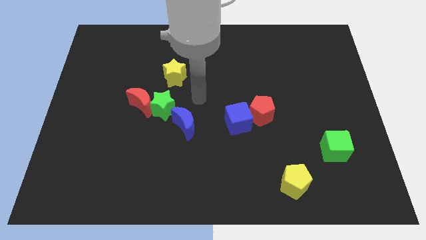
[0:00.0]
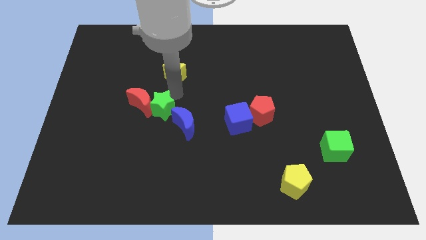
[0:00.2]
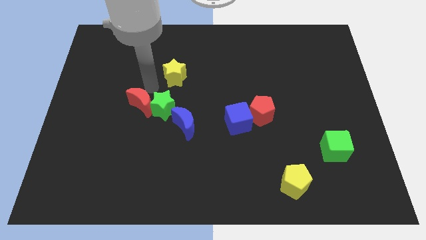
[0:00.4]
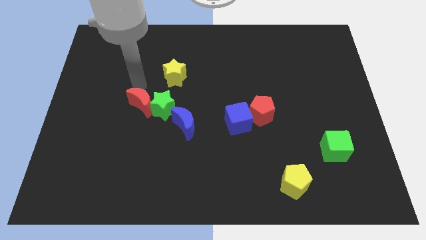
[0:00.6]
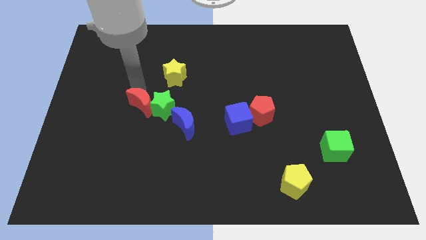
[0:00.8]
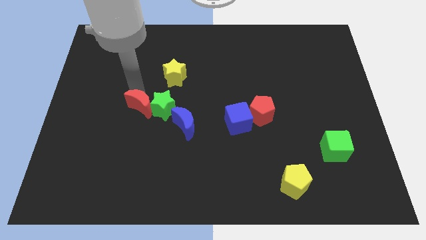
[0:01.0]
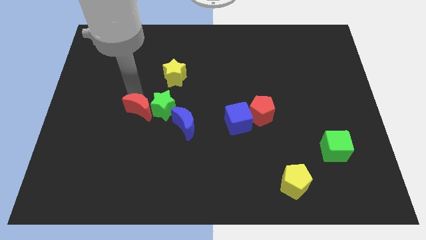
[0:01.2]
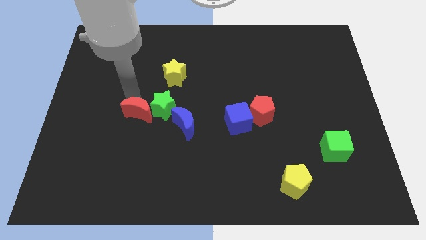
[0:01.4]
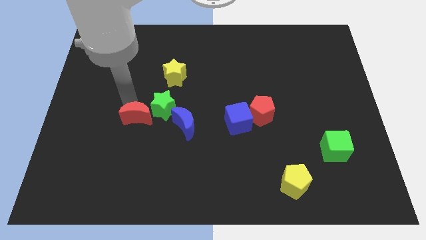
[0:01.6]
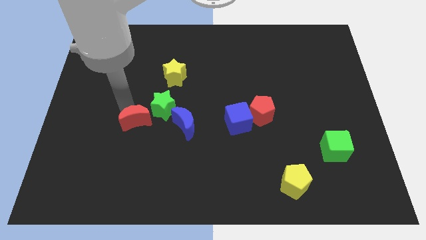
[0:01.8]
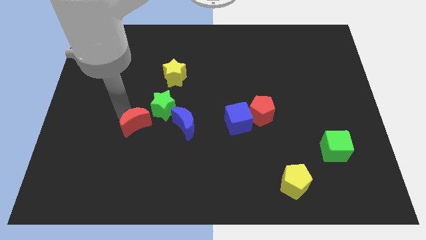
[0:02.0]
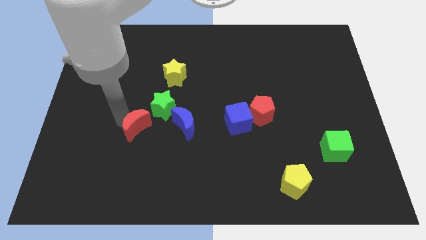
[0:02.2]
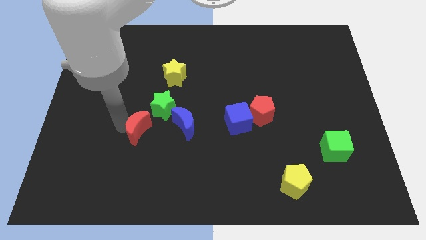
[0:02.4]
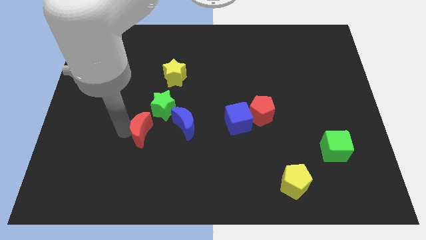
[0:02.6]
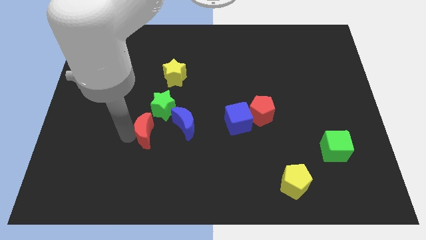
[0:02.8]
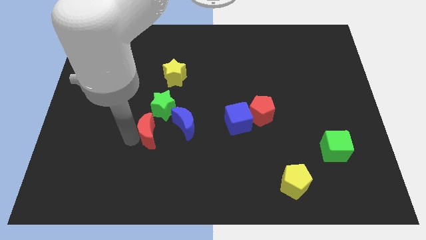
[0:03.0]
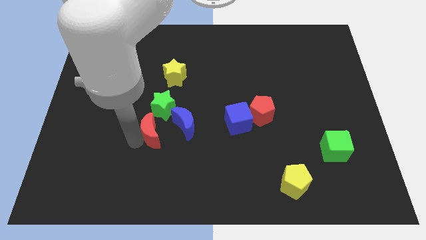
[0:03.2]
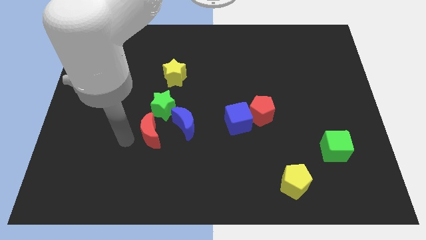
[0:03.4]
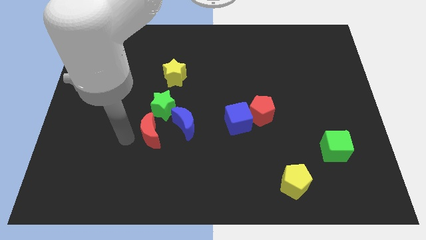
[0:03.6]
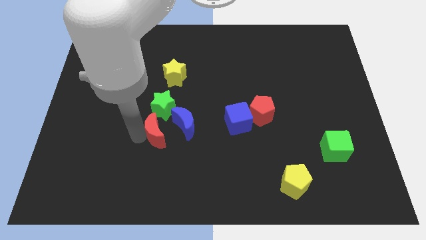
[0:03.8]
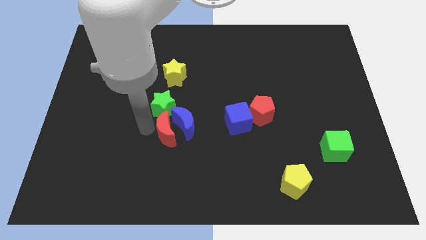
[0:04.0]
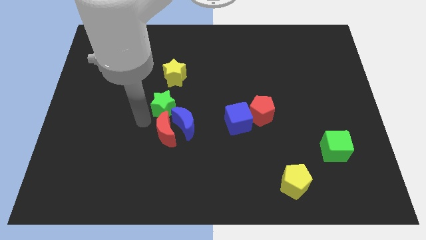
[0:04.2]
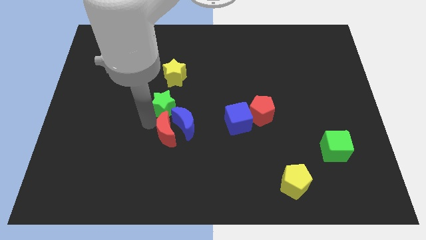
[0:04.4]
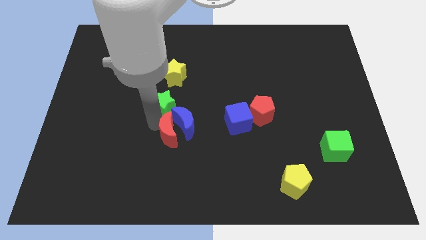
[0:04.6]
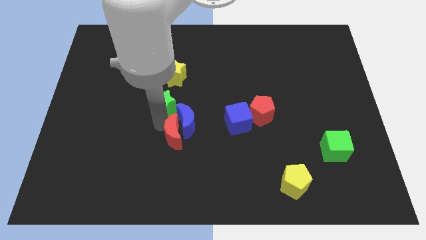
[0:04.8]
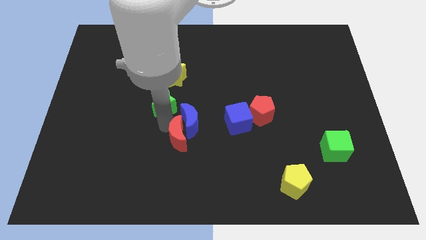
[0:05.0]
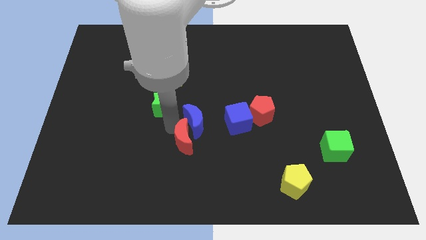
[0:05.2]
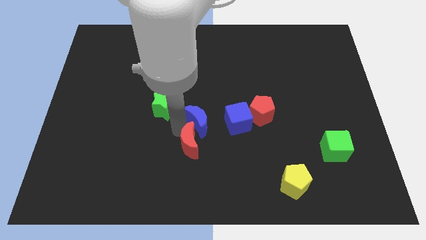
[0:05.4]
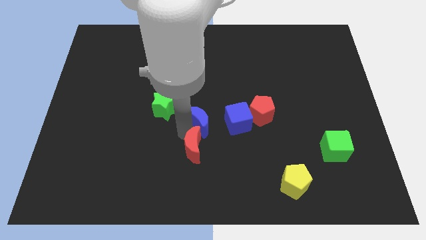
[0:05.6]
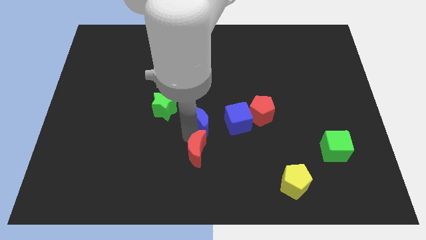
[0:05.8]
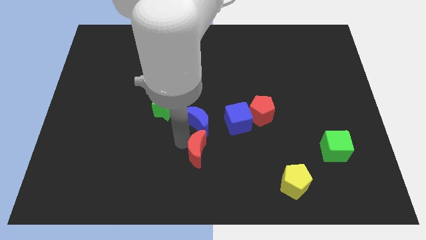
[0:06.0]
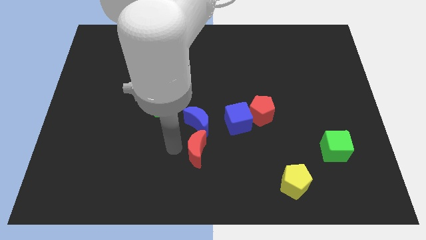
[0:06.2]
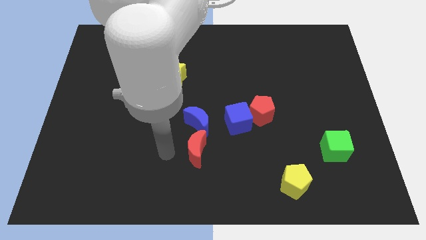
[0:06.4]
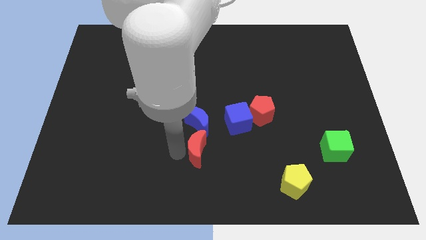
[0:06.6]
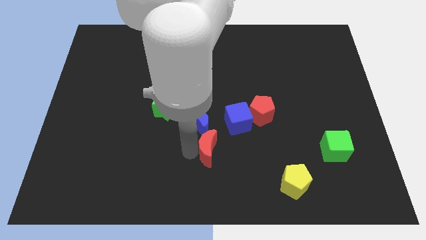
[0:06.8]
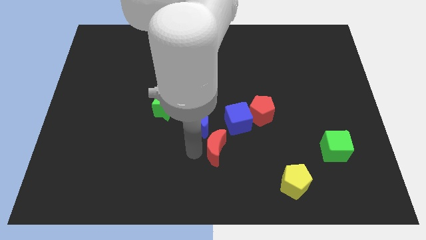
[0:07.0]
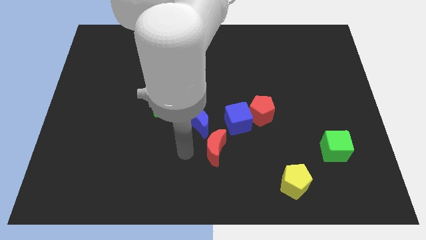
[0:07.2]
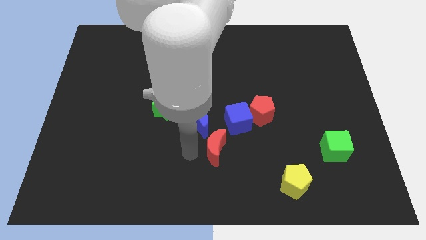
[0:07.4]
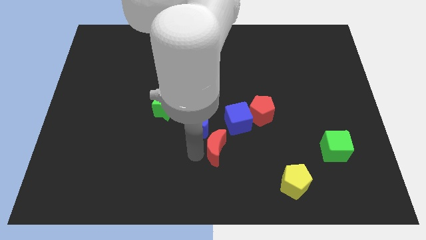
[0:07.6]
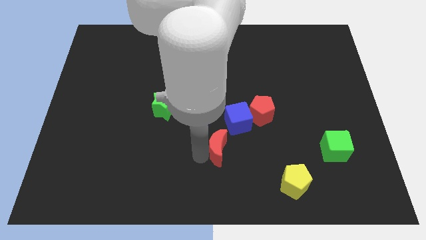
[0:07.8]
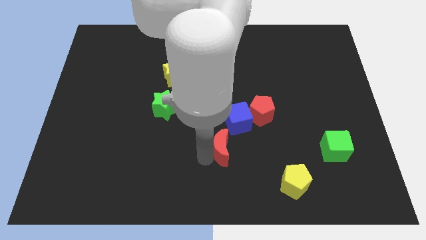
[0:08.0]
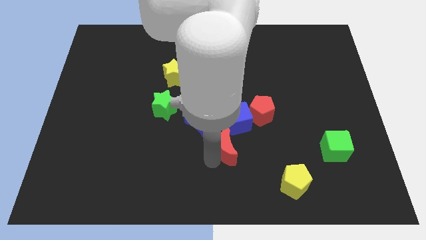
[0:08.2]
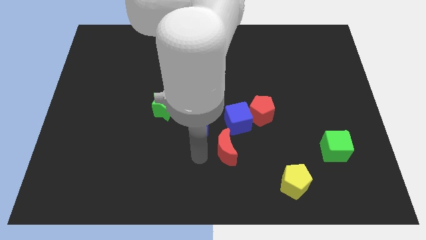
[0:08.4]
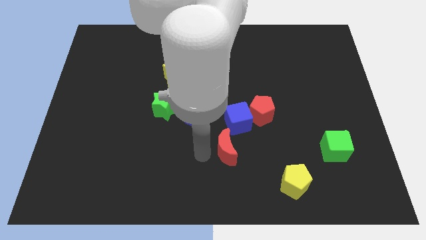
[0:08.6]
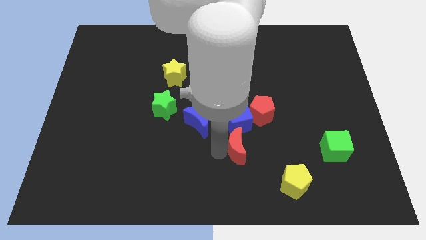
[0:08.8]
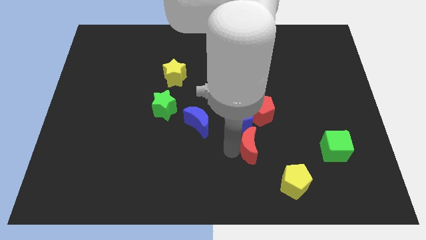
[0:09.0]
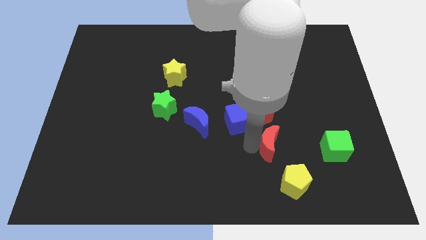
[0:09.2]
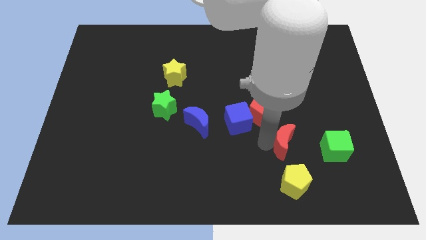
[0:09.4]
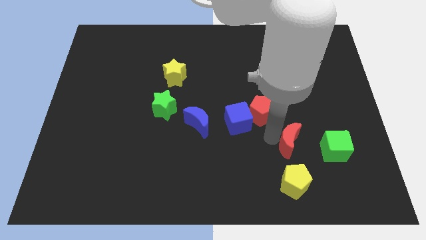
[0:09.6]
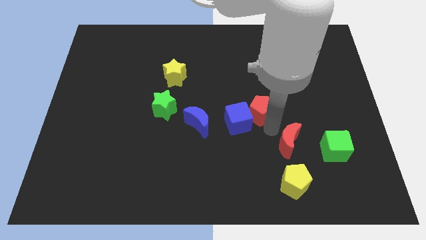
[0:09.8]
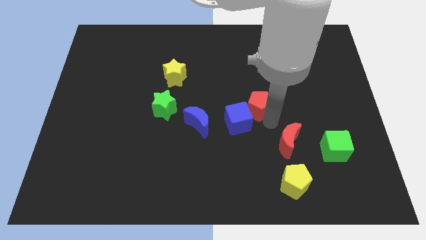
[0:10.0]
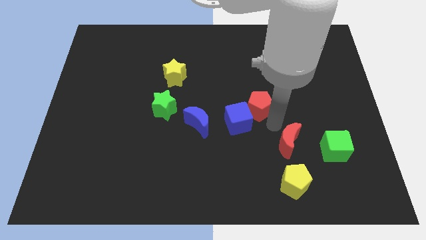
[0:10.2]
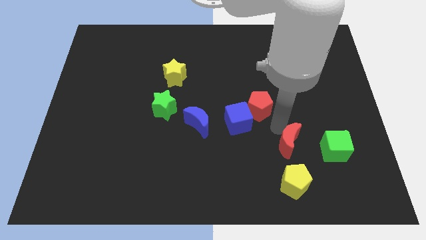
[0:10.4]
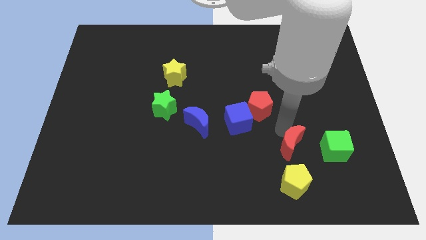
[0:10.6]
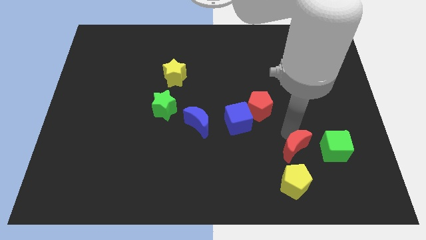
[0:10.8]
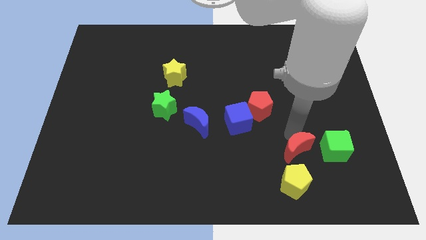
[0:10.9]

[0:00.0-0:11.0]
slide the red moon diagonally up and to the right of the yellow pentagon

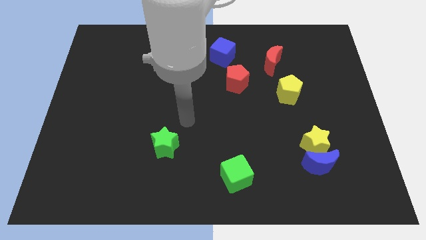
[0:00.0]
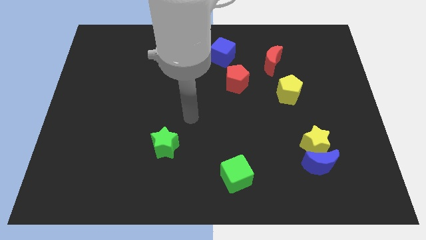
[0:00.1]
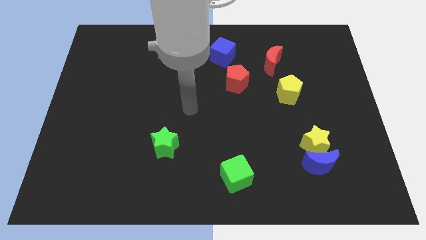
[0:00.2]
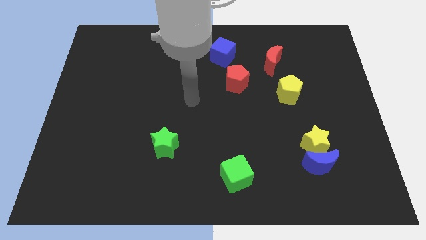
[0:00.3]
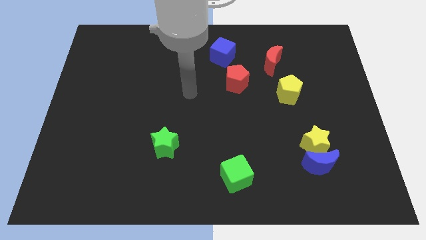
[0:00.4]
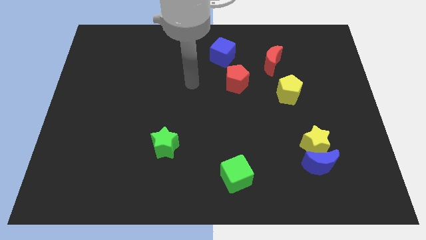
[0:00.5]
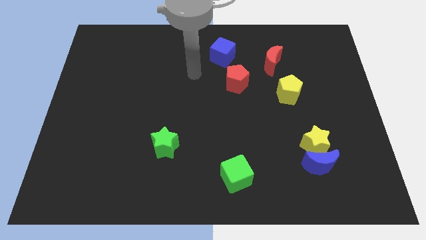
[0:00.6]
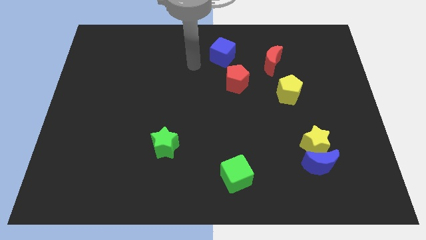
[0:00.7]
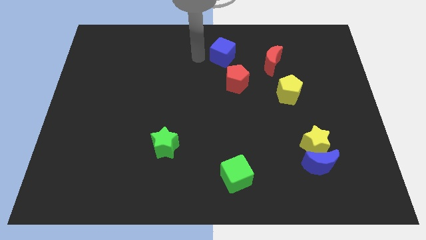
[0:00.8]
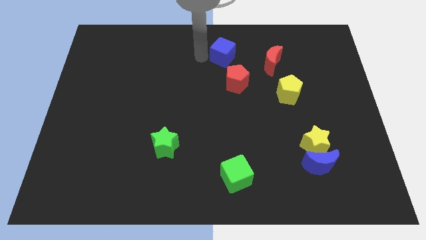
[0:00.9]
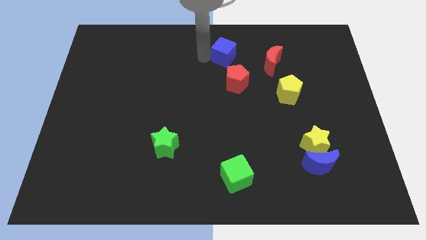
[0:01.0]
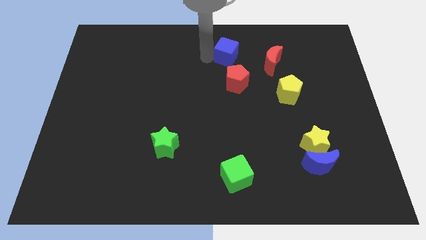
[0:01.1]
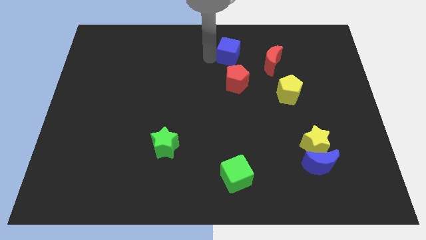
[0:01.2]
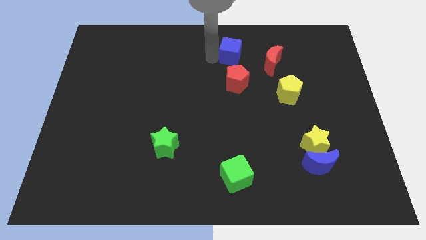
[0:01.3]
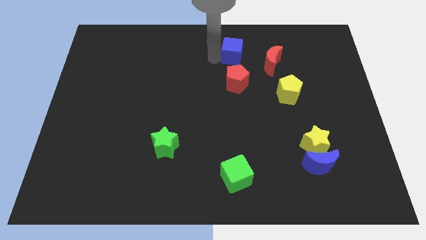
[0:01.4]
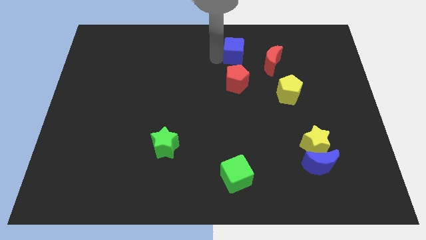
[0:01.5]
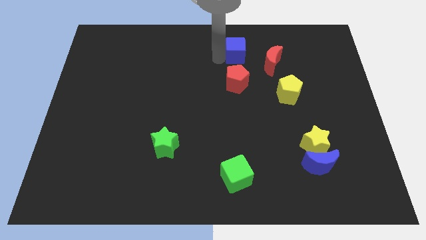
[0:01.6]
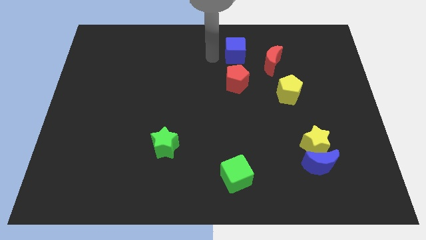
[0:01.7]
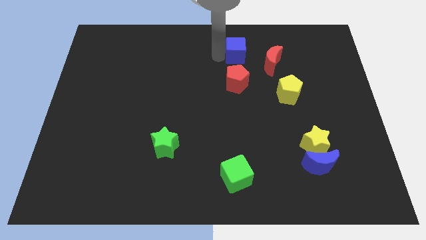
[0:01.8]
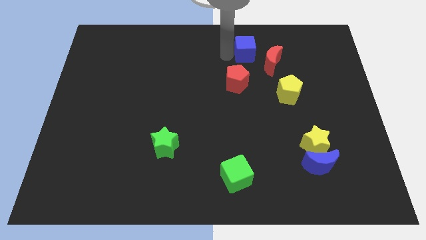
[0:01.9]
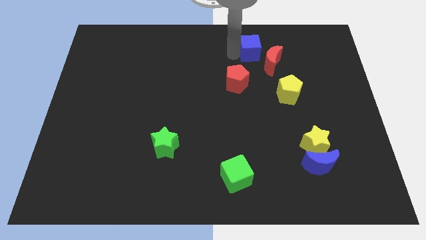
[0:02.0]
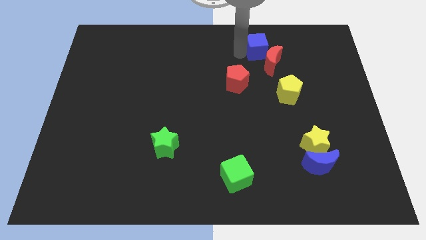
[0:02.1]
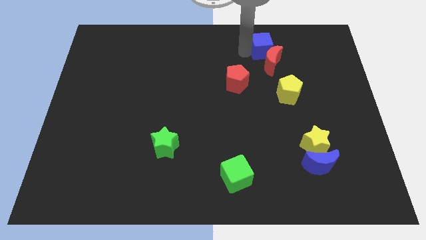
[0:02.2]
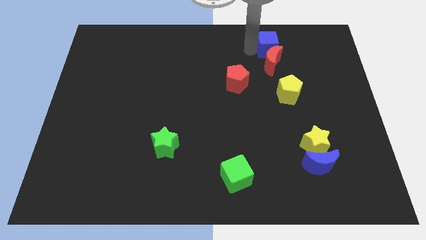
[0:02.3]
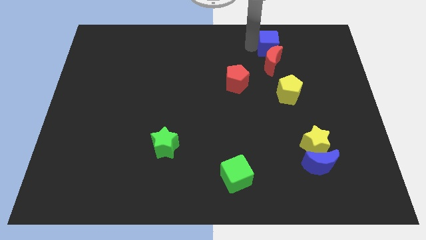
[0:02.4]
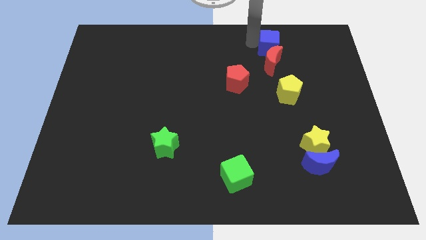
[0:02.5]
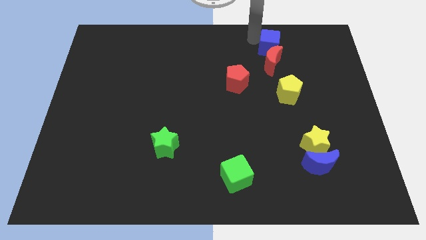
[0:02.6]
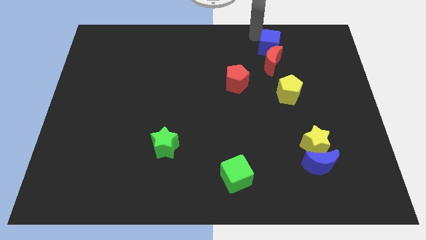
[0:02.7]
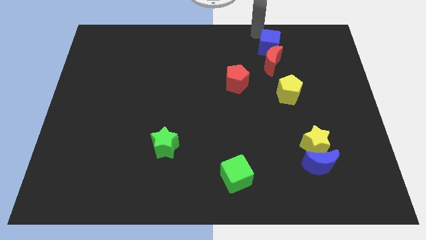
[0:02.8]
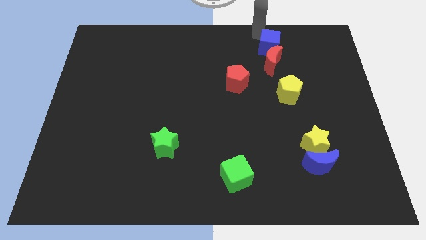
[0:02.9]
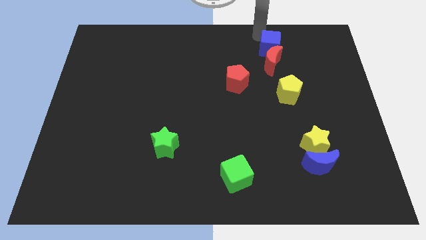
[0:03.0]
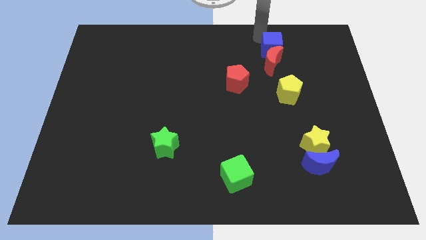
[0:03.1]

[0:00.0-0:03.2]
move the blue cube to the top side of the yellow pentagon
